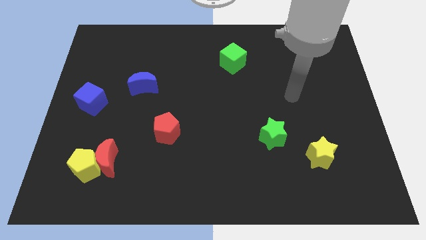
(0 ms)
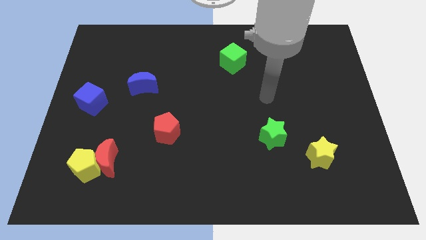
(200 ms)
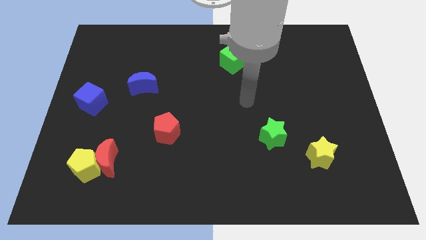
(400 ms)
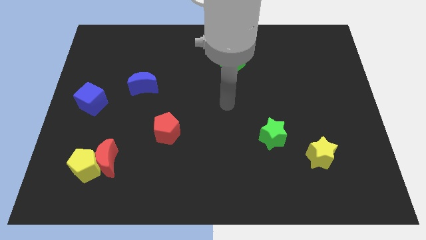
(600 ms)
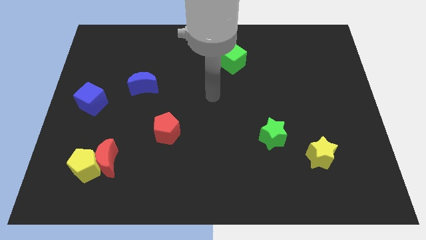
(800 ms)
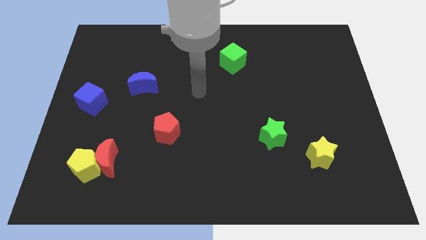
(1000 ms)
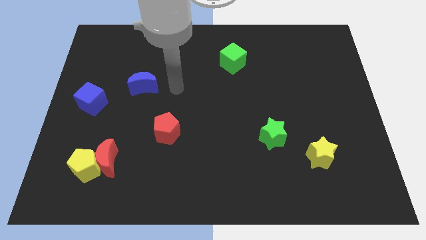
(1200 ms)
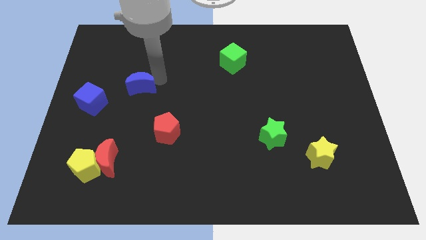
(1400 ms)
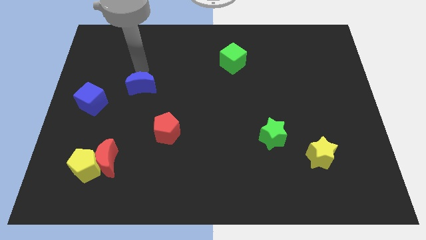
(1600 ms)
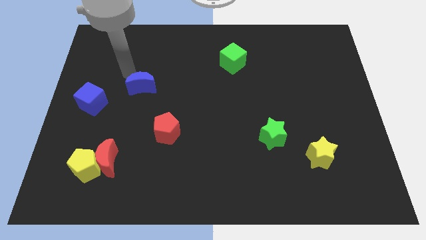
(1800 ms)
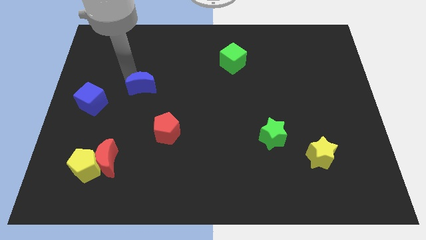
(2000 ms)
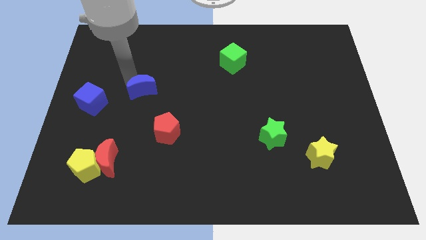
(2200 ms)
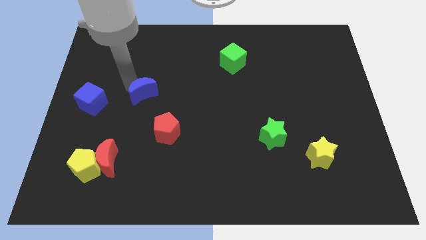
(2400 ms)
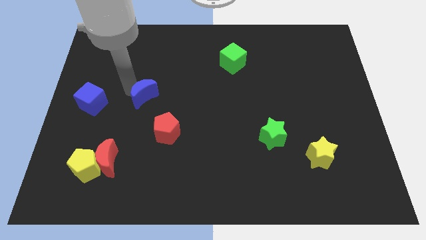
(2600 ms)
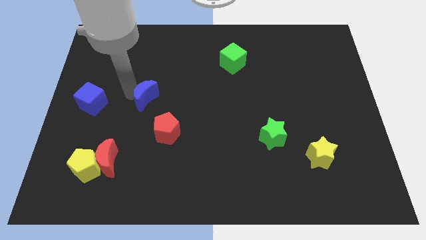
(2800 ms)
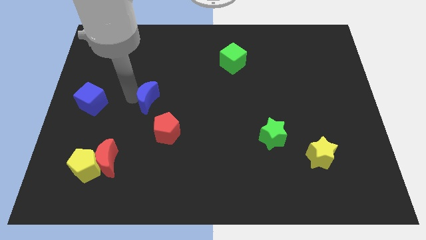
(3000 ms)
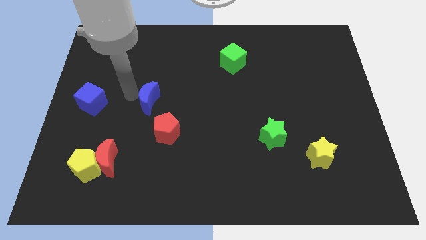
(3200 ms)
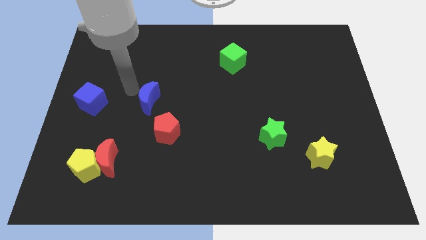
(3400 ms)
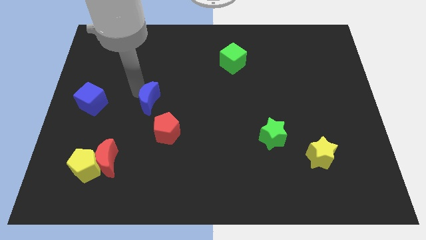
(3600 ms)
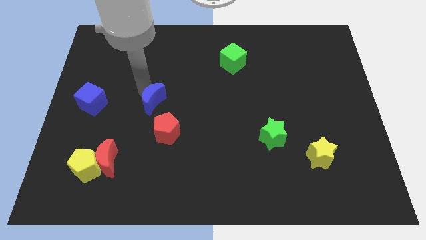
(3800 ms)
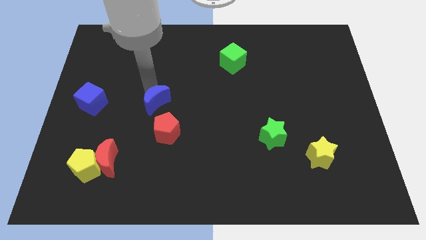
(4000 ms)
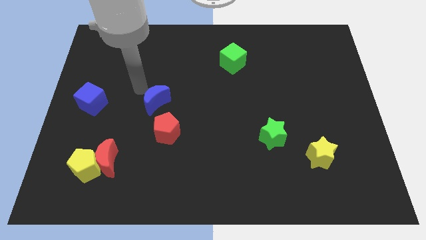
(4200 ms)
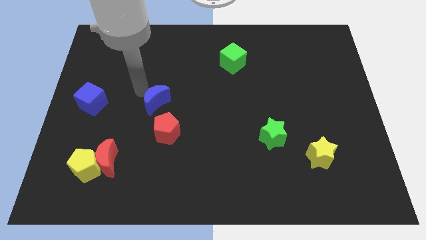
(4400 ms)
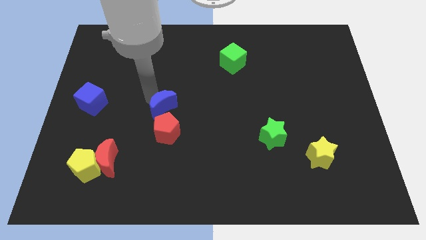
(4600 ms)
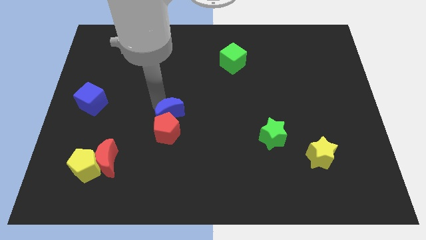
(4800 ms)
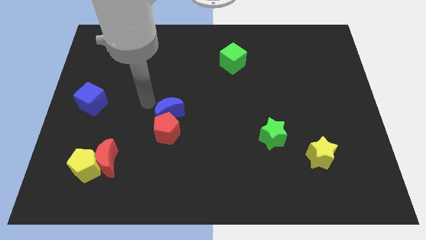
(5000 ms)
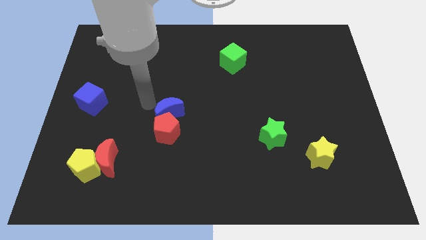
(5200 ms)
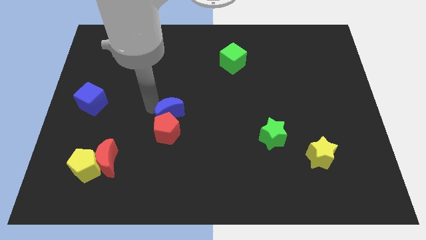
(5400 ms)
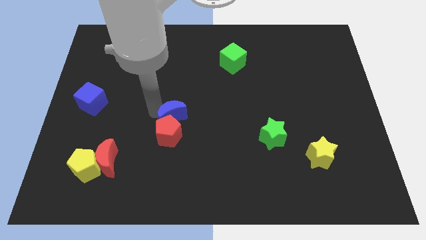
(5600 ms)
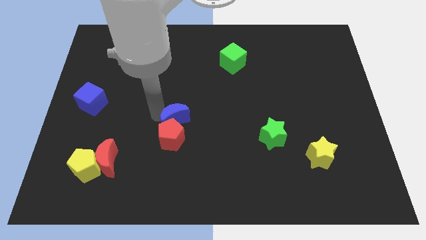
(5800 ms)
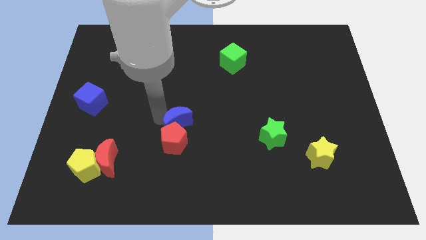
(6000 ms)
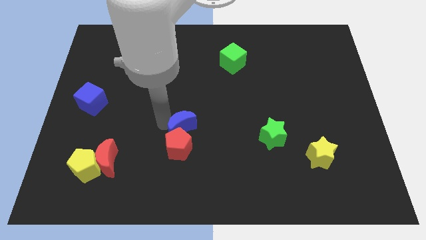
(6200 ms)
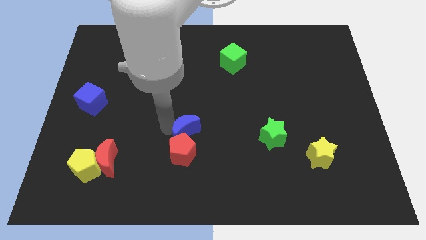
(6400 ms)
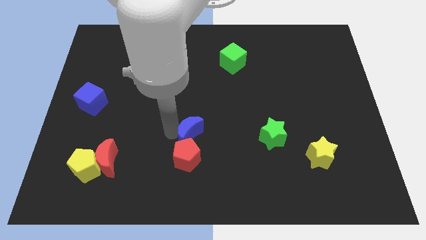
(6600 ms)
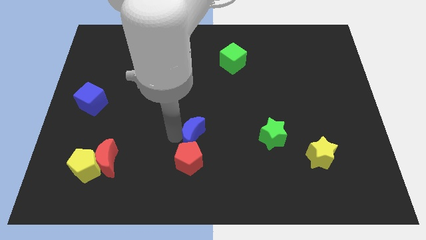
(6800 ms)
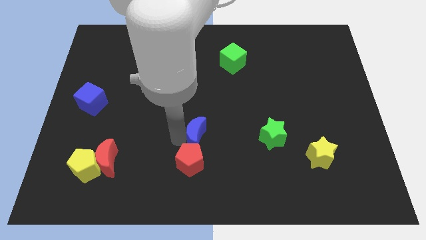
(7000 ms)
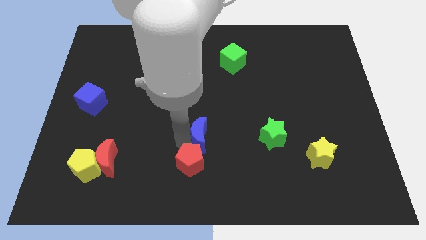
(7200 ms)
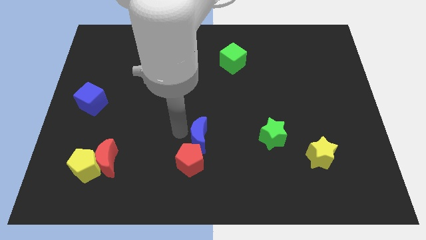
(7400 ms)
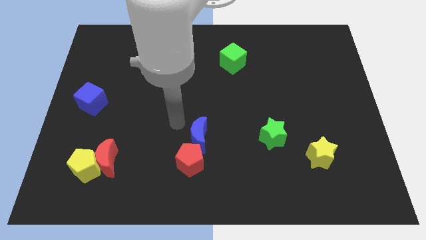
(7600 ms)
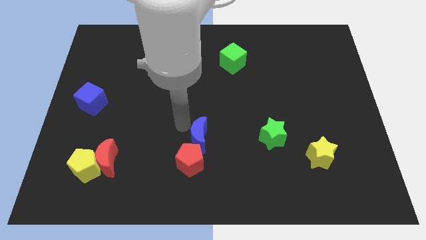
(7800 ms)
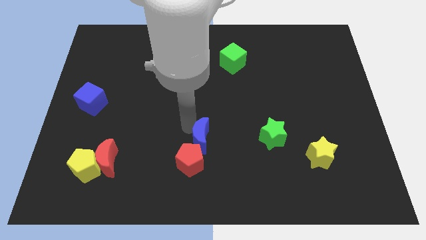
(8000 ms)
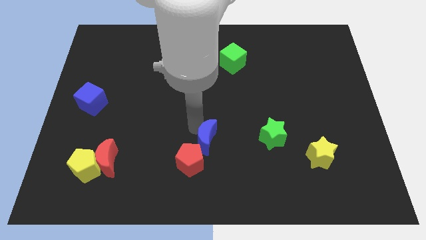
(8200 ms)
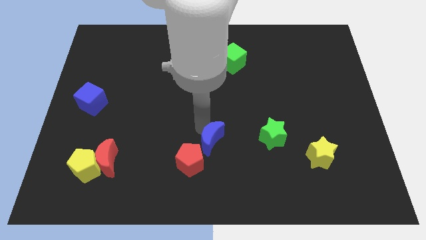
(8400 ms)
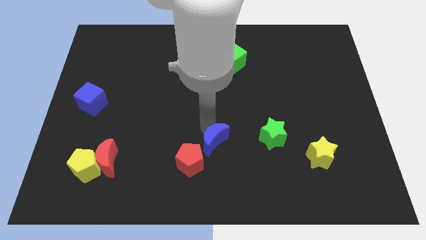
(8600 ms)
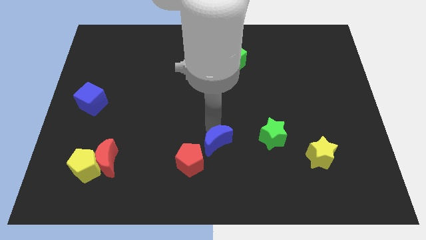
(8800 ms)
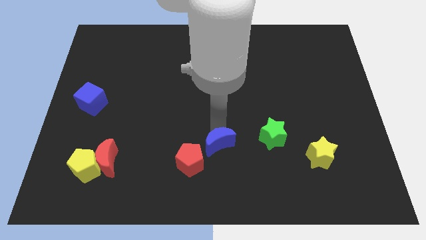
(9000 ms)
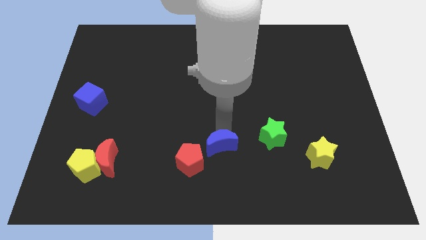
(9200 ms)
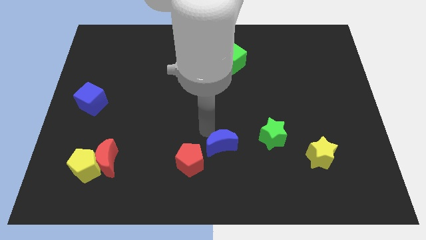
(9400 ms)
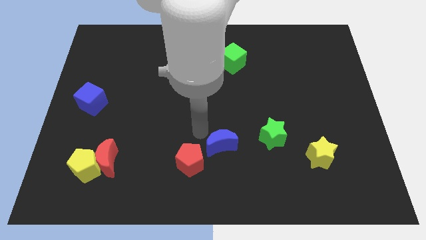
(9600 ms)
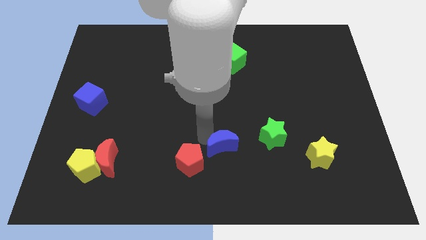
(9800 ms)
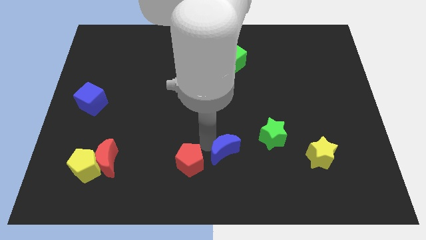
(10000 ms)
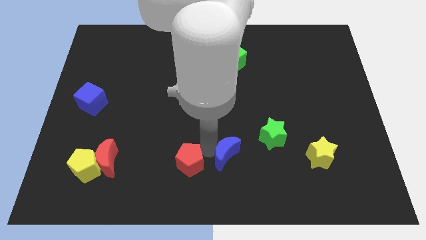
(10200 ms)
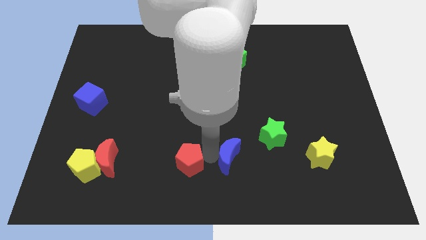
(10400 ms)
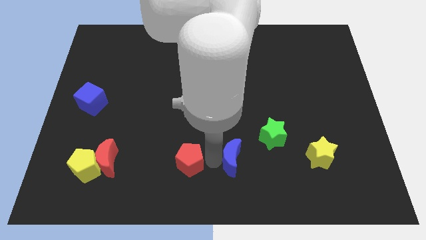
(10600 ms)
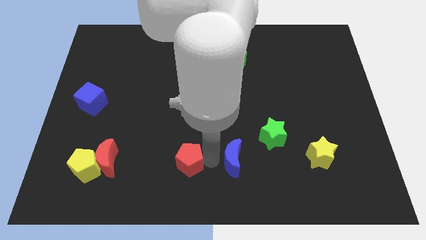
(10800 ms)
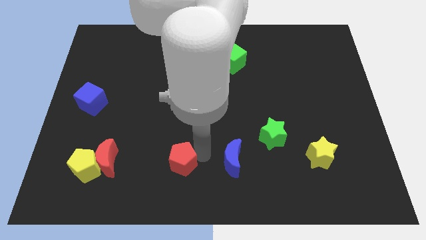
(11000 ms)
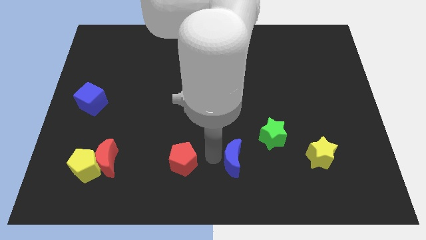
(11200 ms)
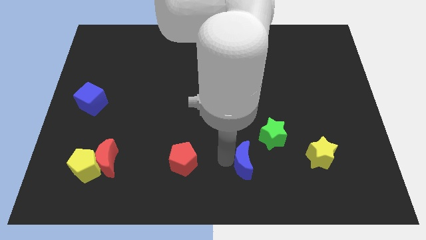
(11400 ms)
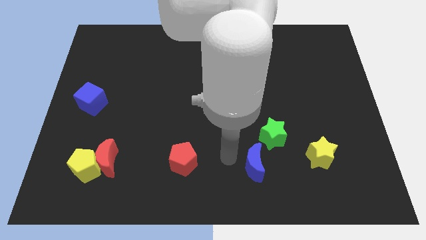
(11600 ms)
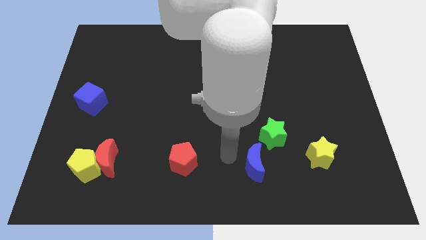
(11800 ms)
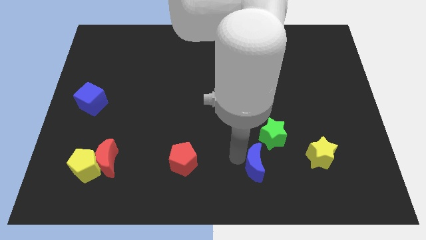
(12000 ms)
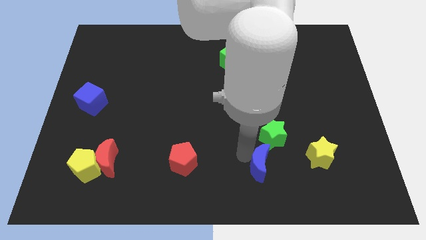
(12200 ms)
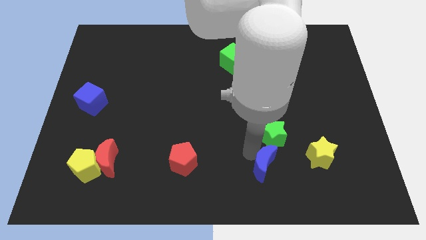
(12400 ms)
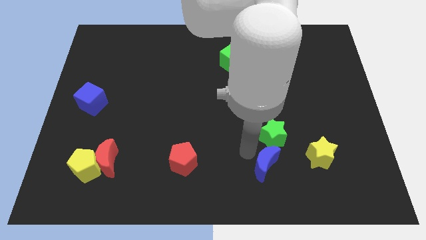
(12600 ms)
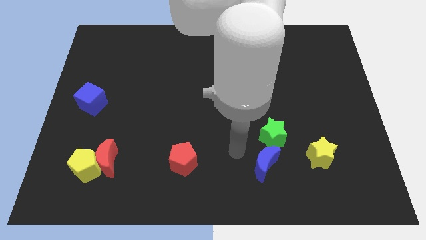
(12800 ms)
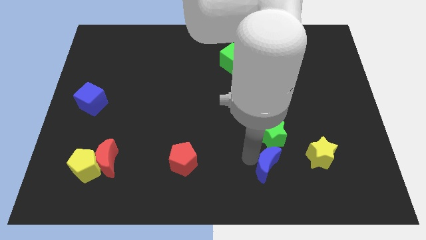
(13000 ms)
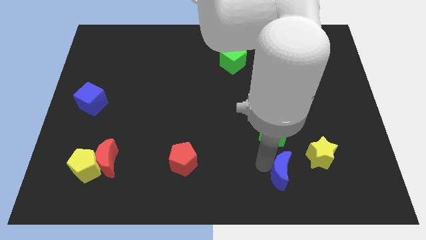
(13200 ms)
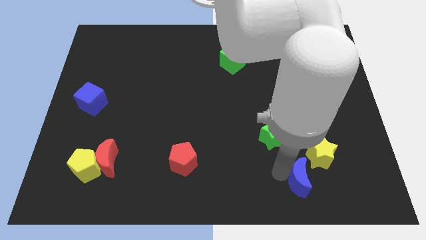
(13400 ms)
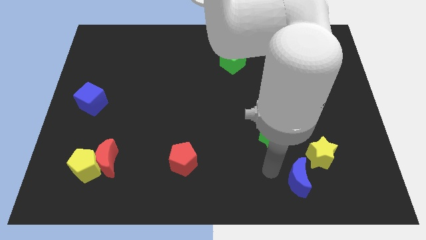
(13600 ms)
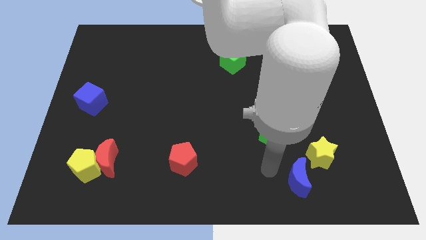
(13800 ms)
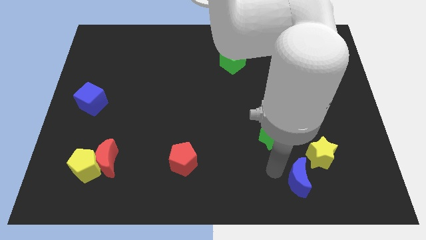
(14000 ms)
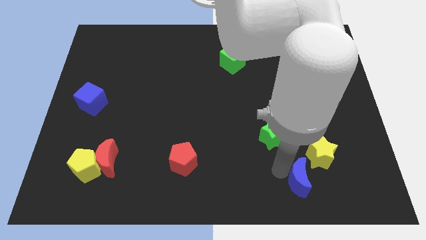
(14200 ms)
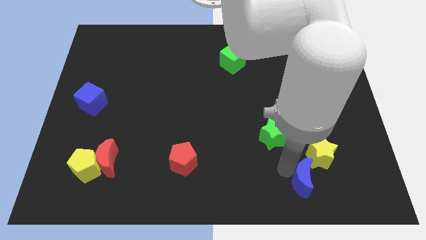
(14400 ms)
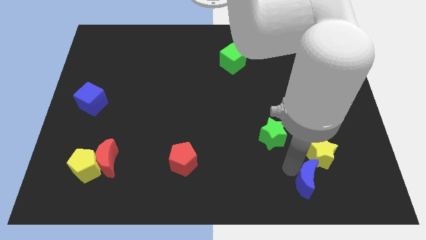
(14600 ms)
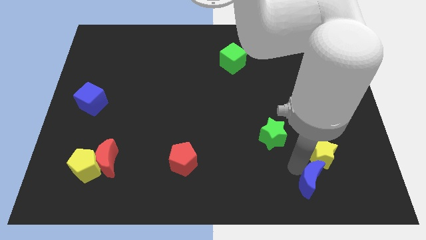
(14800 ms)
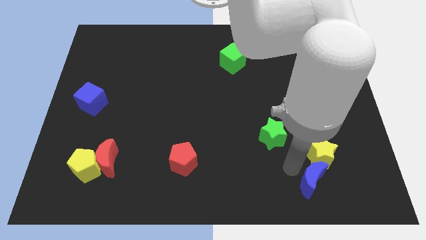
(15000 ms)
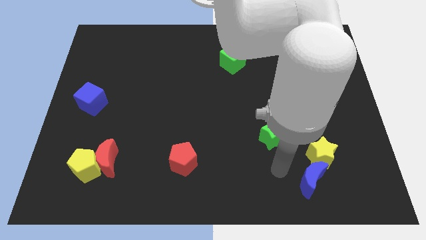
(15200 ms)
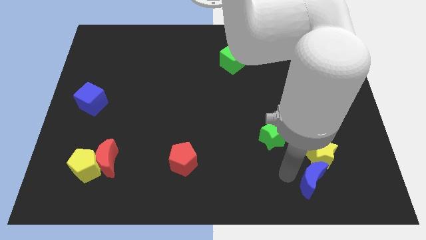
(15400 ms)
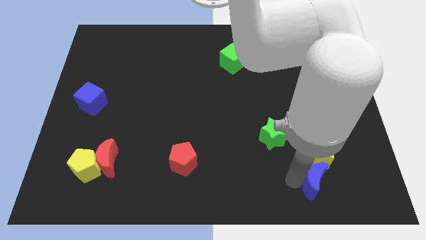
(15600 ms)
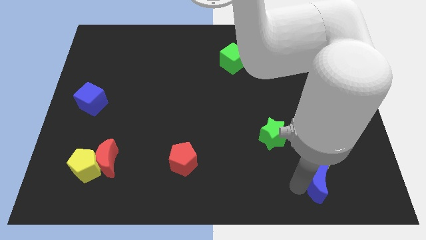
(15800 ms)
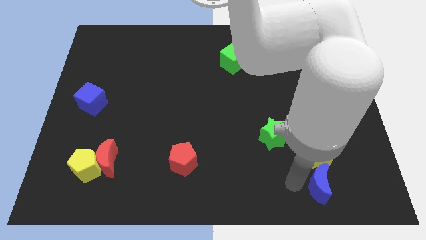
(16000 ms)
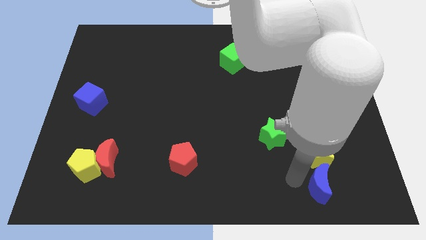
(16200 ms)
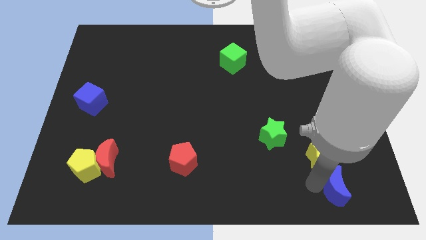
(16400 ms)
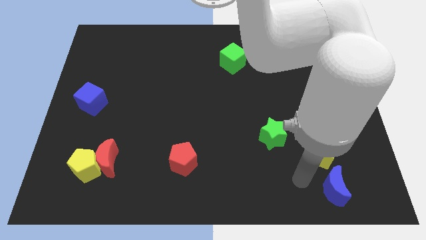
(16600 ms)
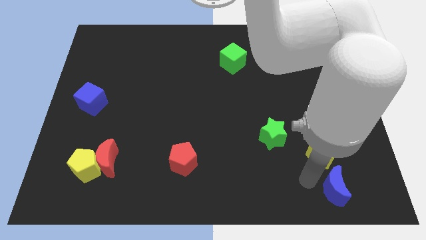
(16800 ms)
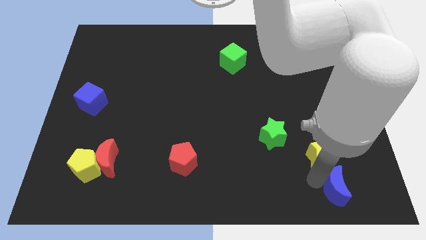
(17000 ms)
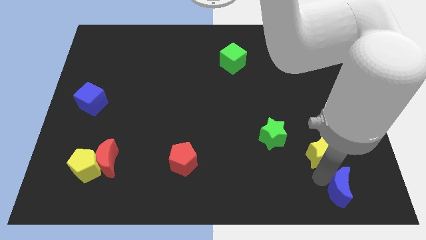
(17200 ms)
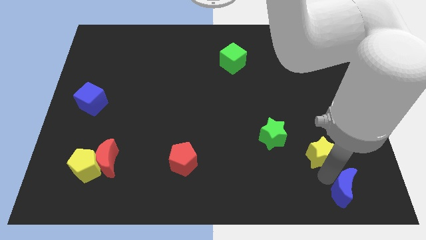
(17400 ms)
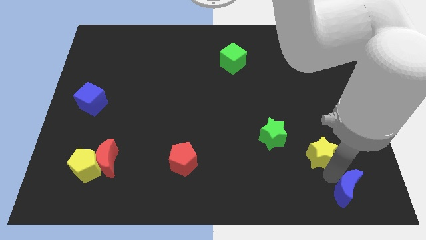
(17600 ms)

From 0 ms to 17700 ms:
put the blue moon to the bottom right corner
